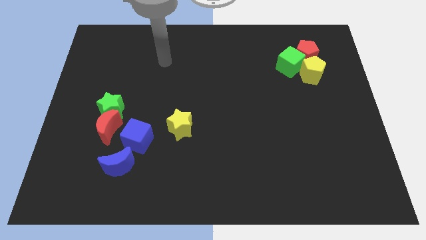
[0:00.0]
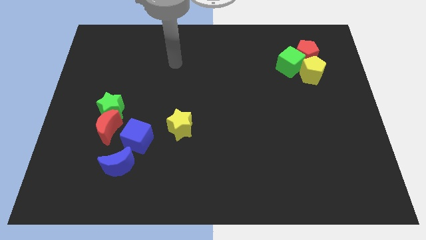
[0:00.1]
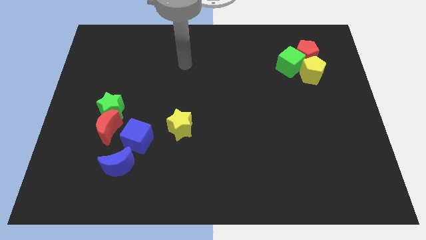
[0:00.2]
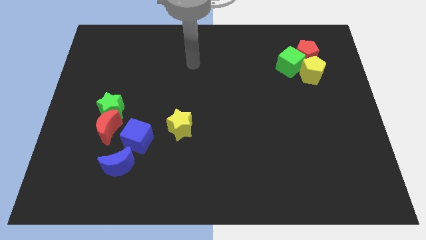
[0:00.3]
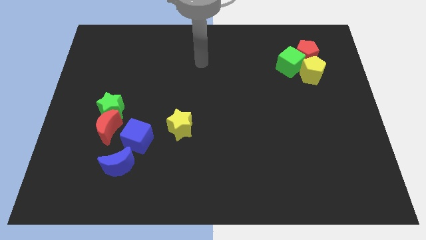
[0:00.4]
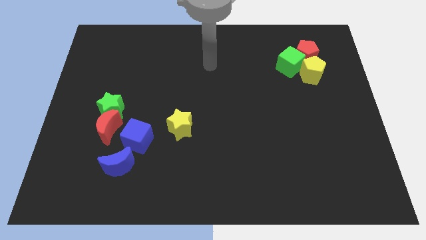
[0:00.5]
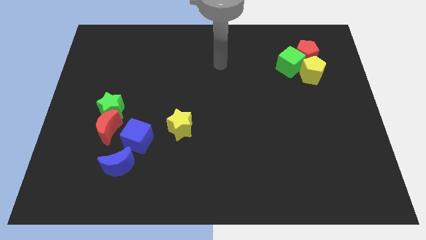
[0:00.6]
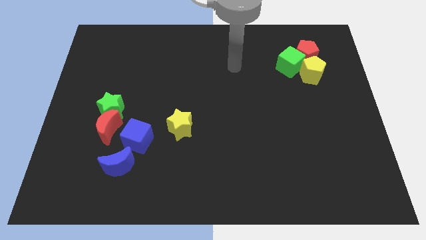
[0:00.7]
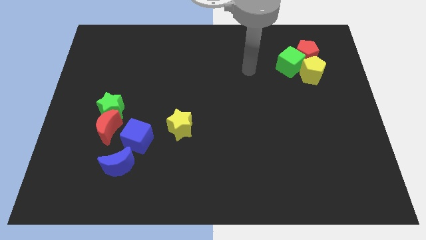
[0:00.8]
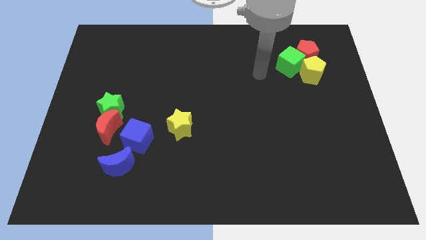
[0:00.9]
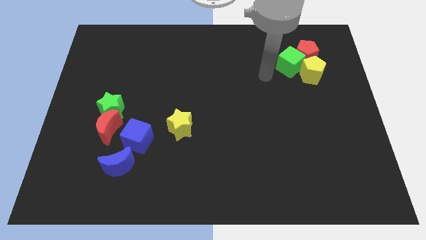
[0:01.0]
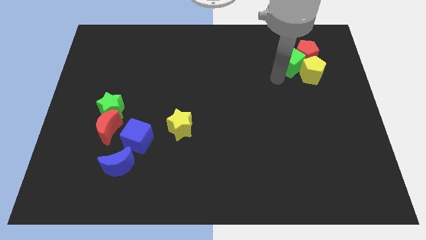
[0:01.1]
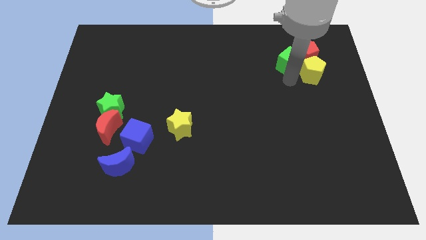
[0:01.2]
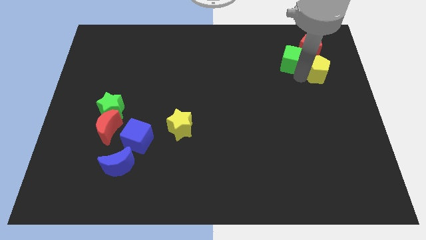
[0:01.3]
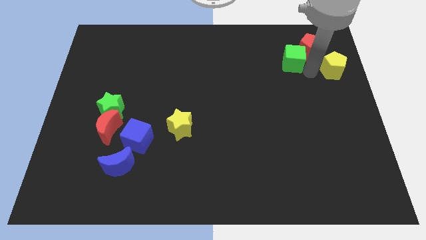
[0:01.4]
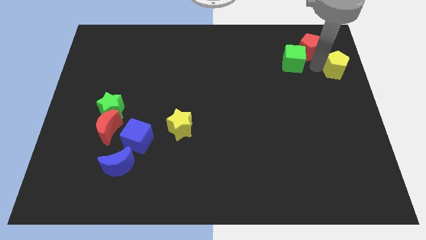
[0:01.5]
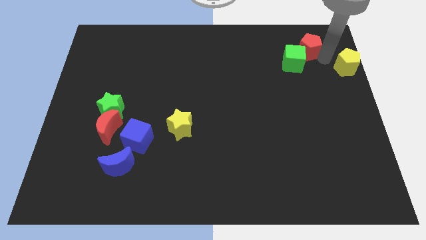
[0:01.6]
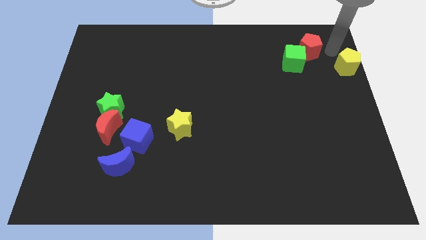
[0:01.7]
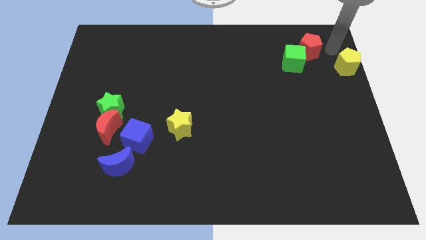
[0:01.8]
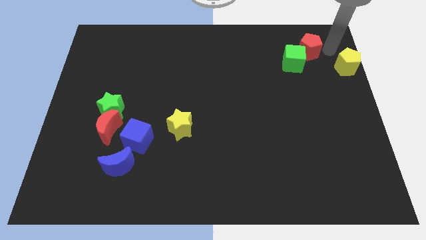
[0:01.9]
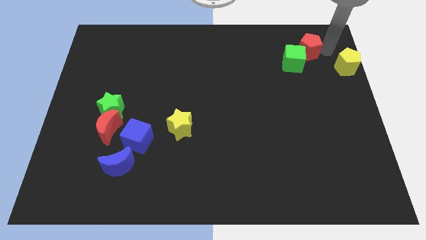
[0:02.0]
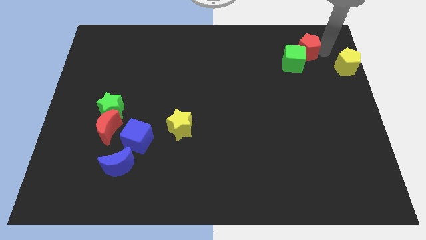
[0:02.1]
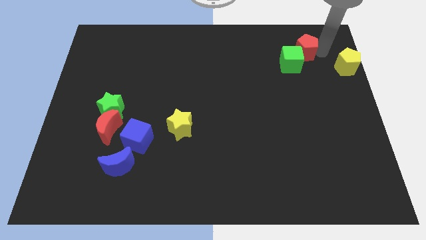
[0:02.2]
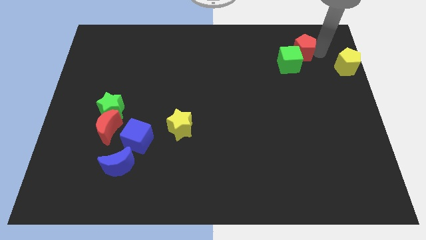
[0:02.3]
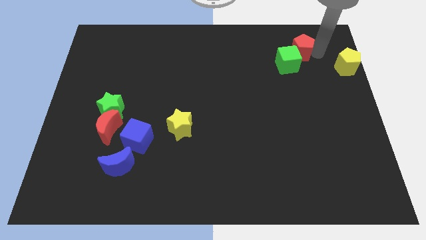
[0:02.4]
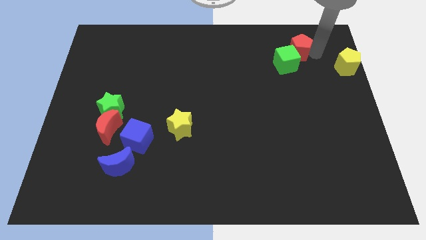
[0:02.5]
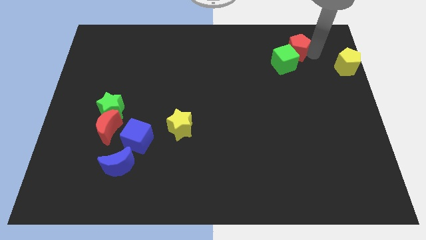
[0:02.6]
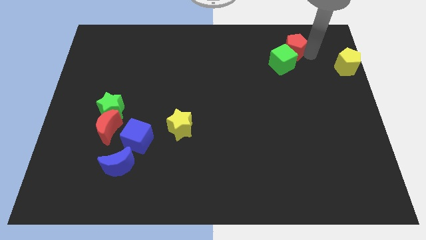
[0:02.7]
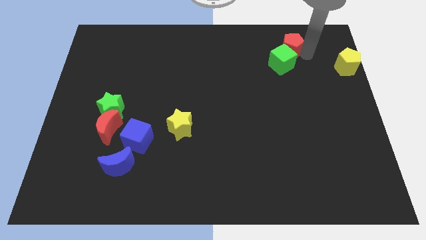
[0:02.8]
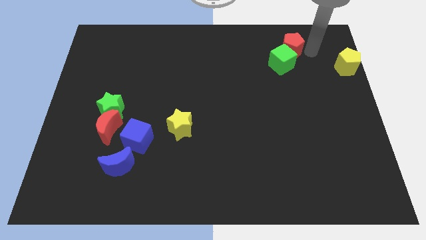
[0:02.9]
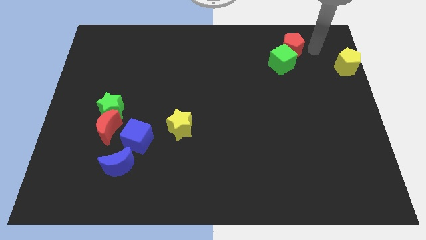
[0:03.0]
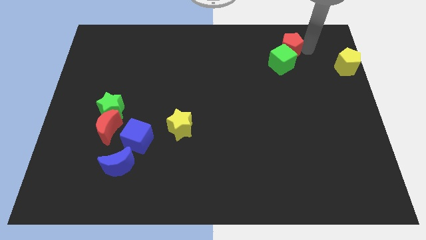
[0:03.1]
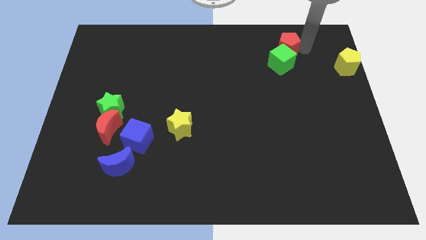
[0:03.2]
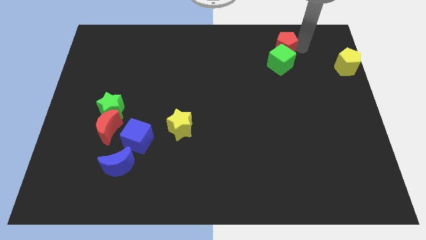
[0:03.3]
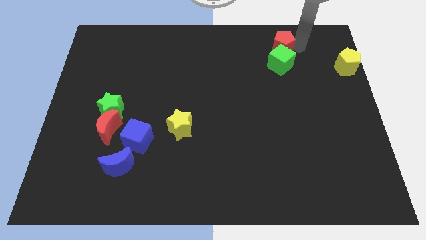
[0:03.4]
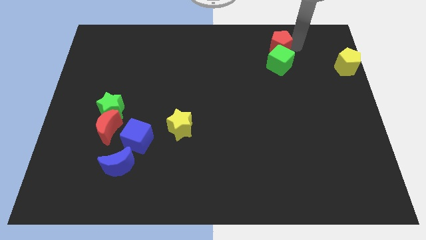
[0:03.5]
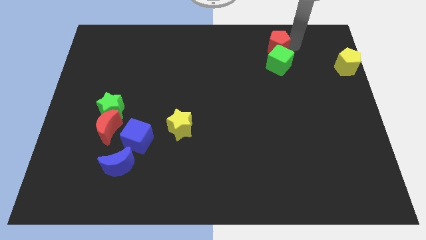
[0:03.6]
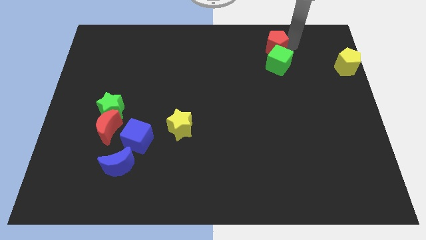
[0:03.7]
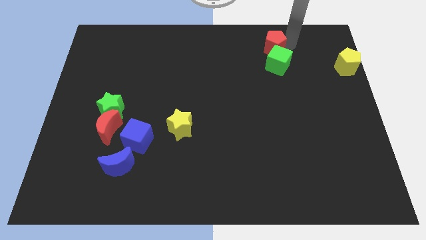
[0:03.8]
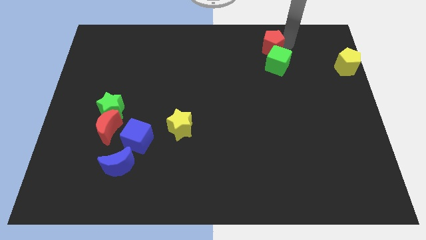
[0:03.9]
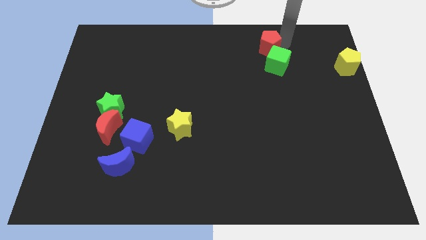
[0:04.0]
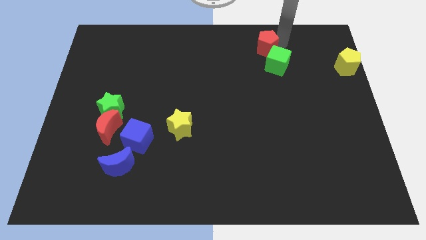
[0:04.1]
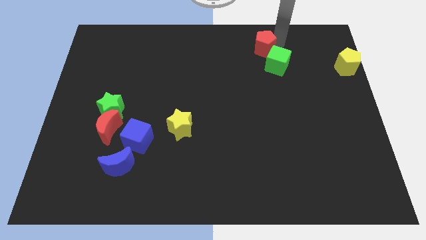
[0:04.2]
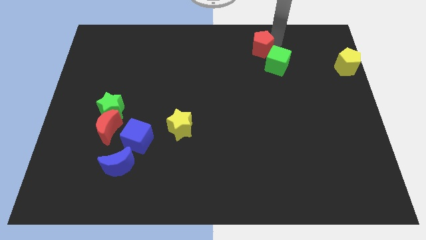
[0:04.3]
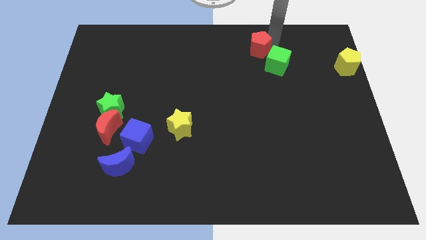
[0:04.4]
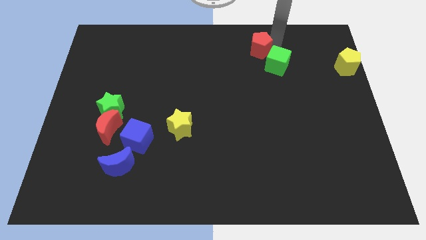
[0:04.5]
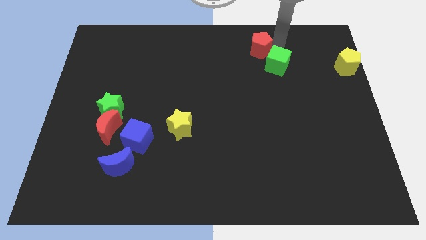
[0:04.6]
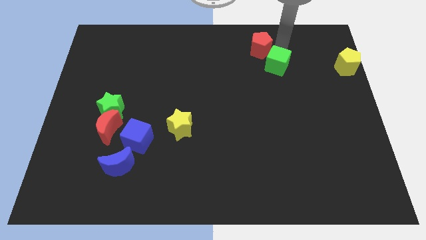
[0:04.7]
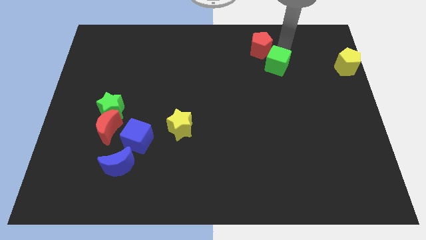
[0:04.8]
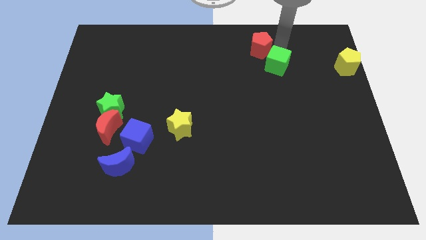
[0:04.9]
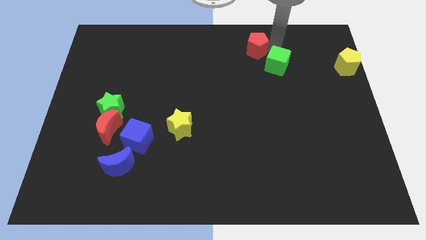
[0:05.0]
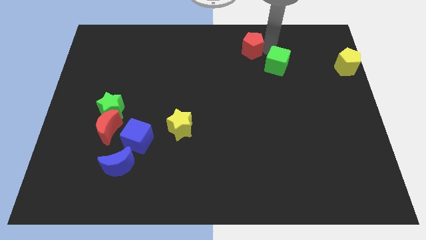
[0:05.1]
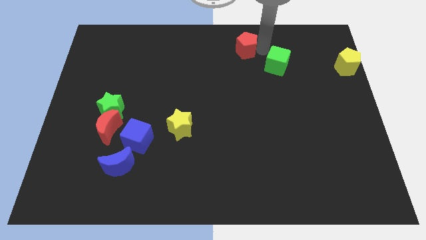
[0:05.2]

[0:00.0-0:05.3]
slide the red pentagon to the top

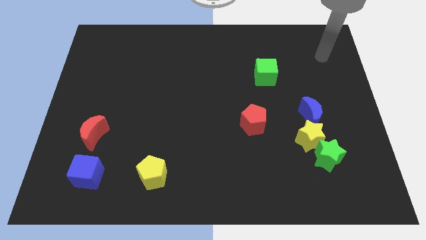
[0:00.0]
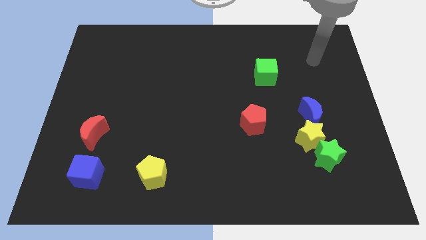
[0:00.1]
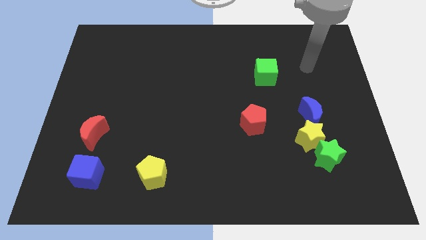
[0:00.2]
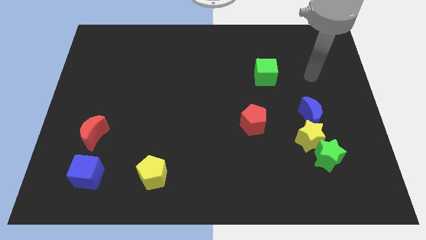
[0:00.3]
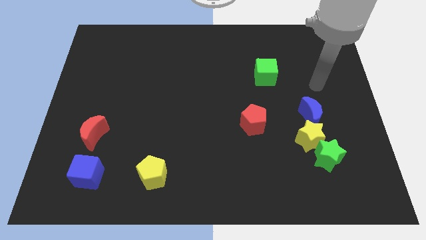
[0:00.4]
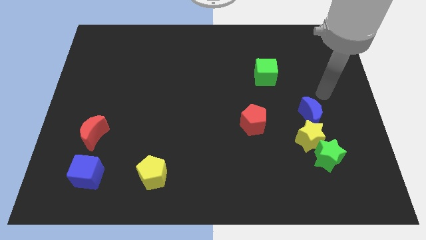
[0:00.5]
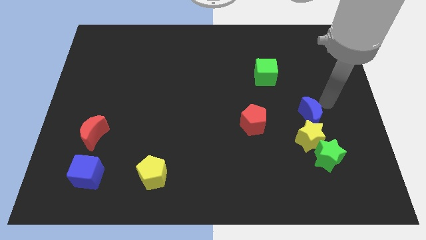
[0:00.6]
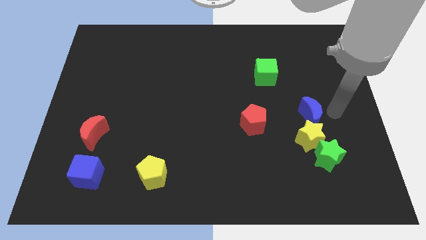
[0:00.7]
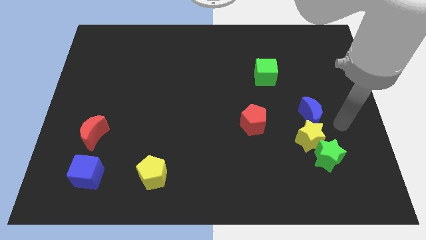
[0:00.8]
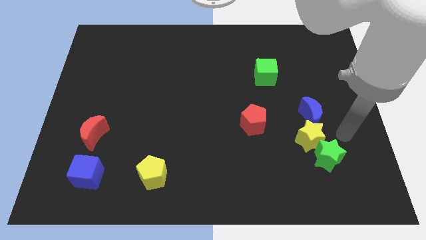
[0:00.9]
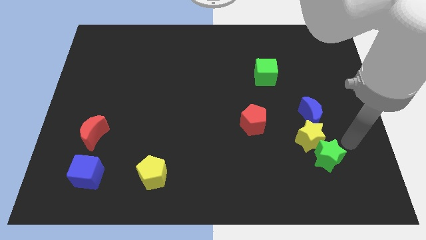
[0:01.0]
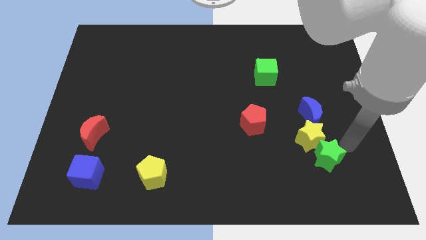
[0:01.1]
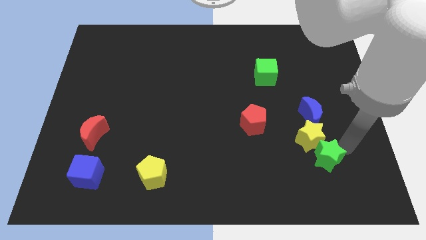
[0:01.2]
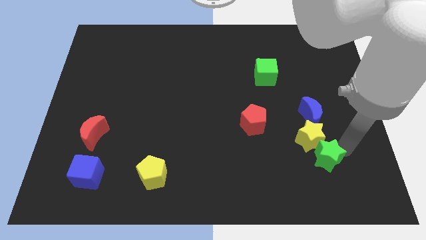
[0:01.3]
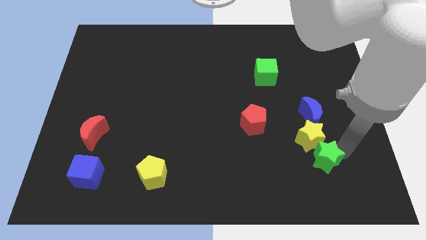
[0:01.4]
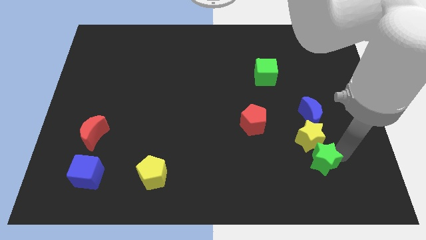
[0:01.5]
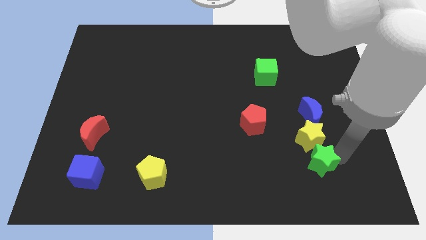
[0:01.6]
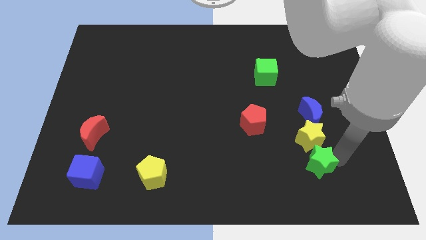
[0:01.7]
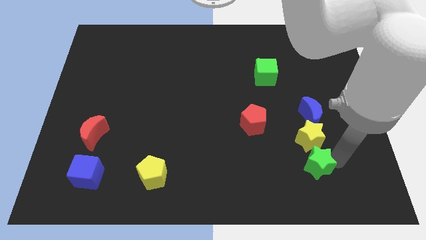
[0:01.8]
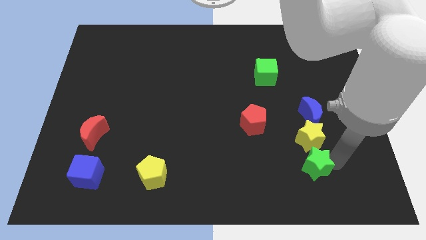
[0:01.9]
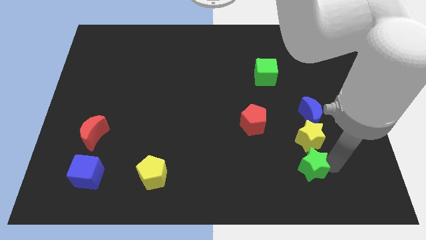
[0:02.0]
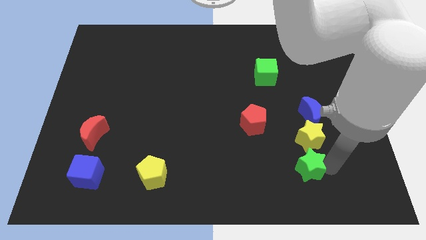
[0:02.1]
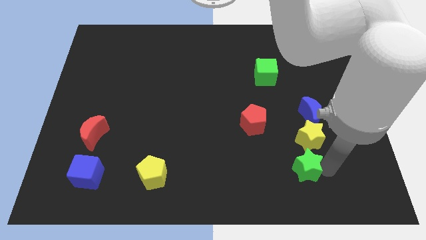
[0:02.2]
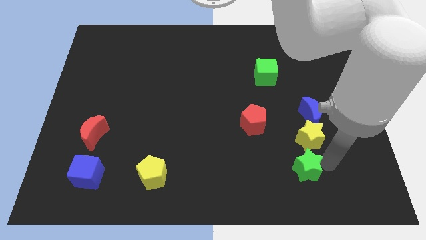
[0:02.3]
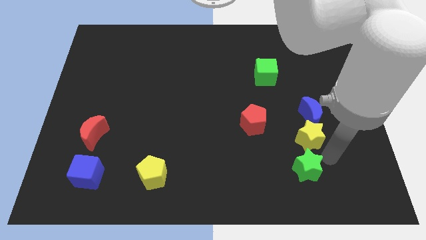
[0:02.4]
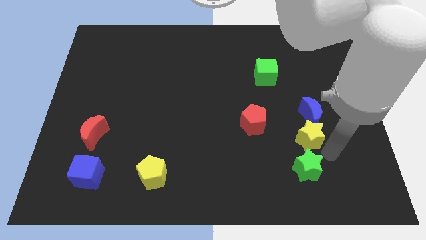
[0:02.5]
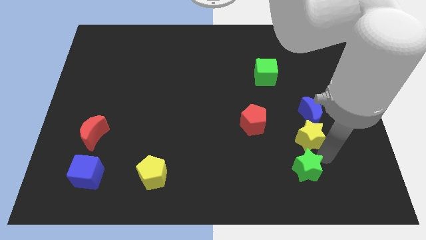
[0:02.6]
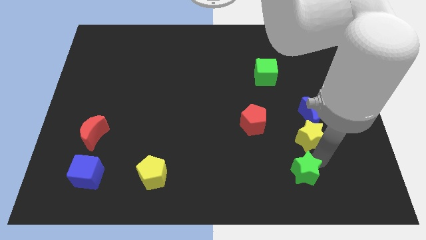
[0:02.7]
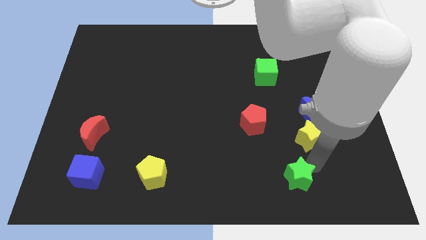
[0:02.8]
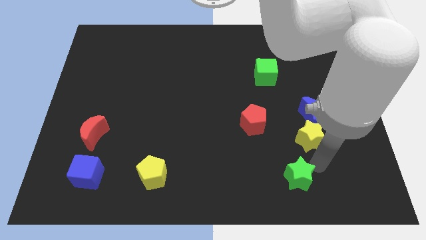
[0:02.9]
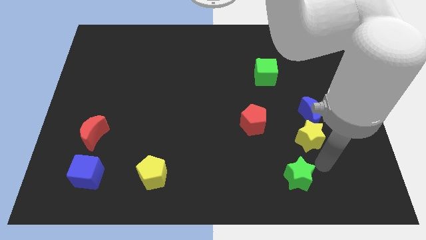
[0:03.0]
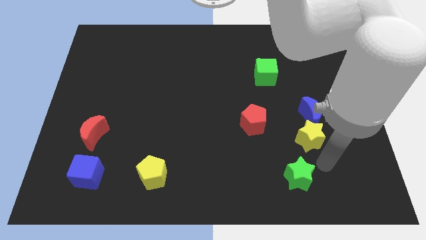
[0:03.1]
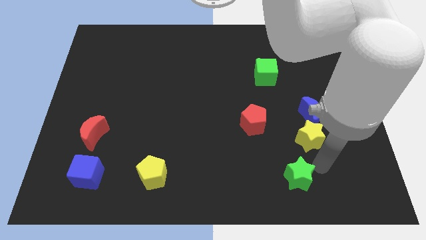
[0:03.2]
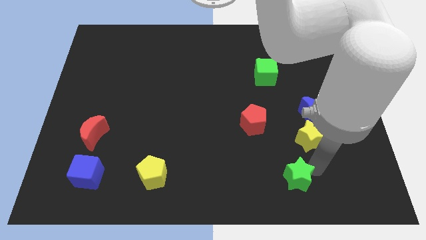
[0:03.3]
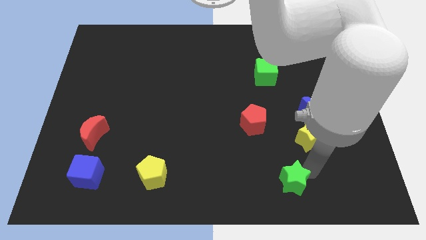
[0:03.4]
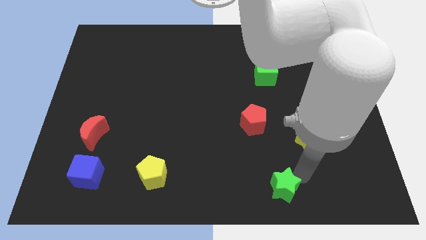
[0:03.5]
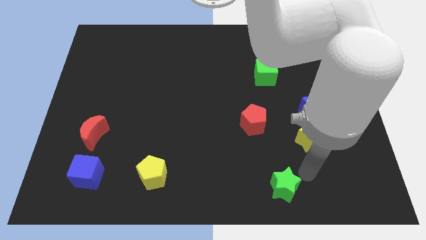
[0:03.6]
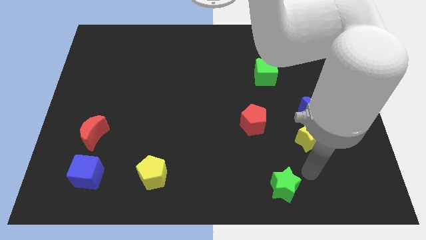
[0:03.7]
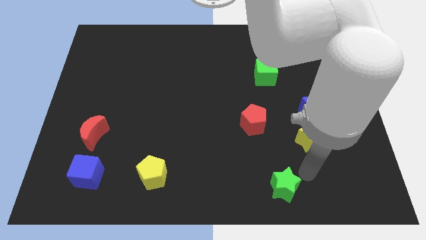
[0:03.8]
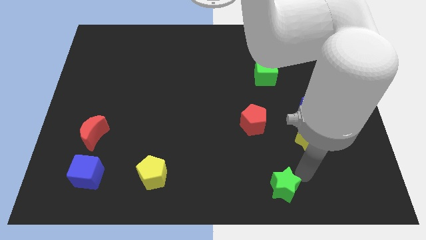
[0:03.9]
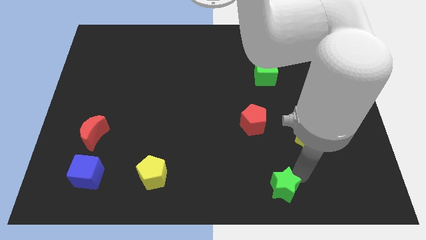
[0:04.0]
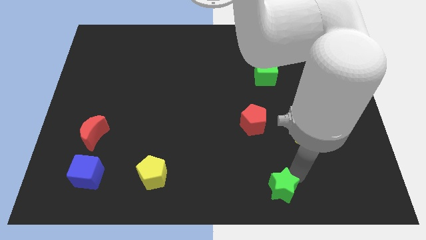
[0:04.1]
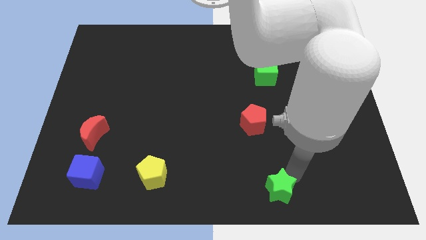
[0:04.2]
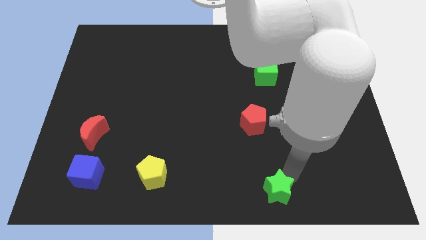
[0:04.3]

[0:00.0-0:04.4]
push the green star to the bottom
